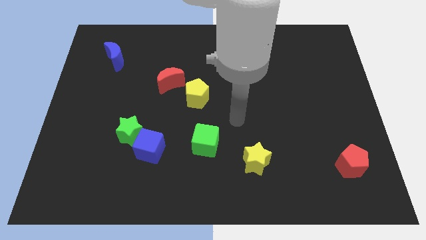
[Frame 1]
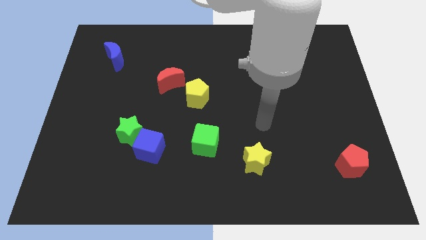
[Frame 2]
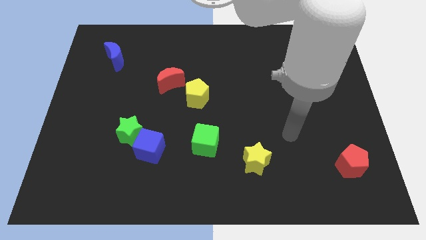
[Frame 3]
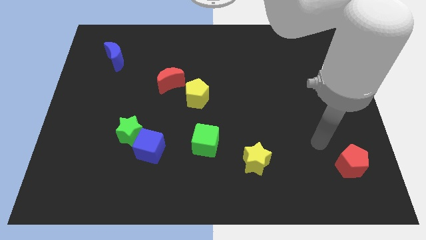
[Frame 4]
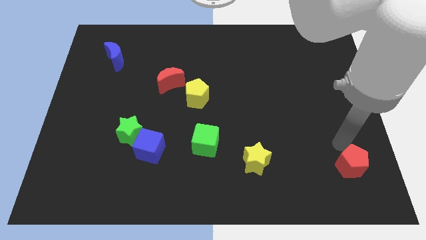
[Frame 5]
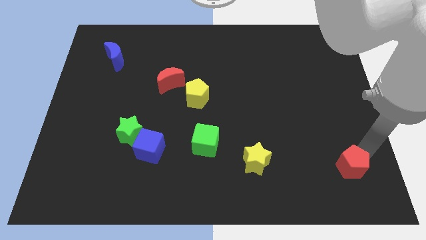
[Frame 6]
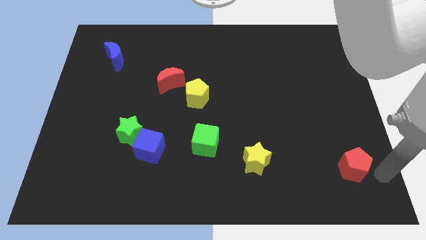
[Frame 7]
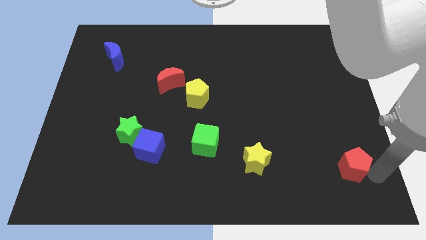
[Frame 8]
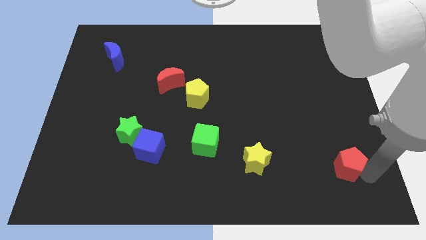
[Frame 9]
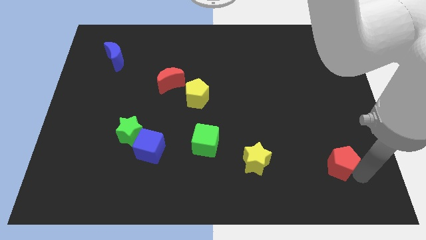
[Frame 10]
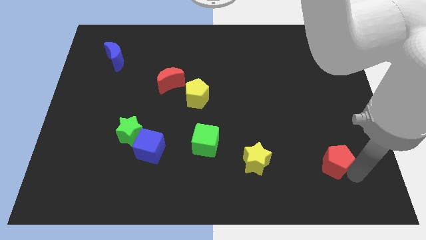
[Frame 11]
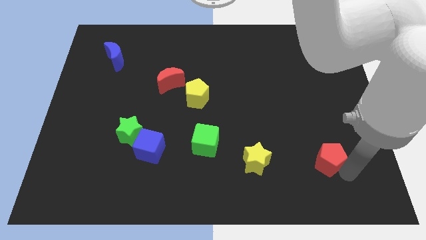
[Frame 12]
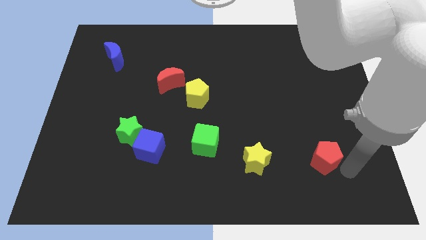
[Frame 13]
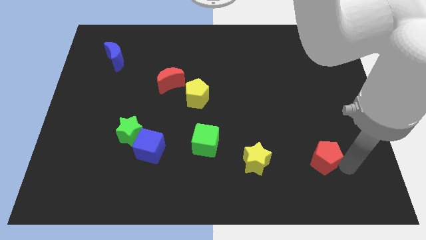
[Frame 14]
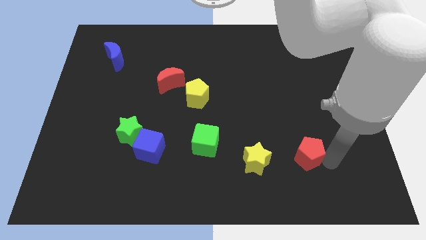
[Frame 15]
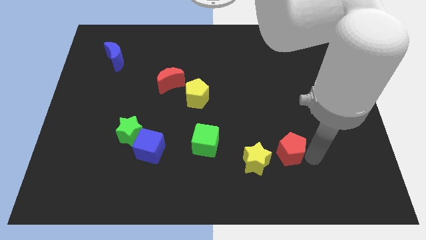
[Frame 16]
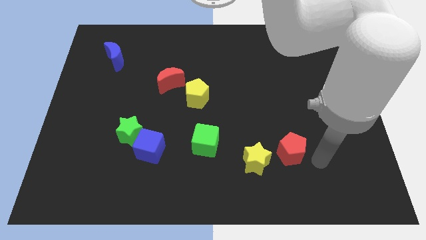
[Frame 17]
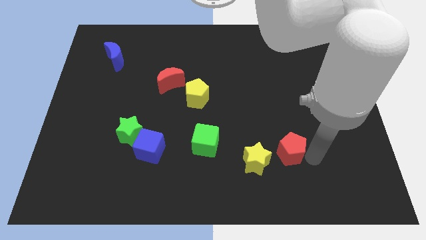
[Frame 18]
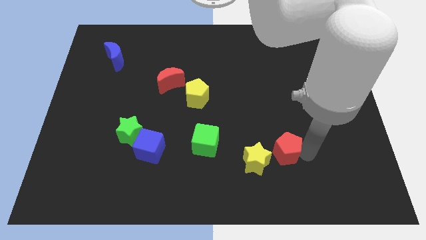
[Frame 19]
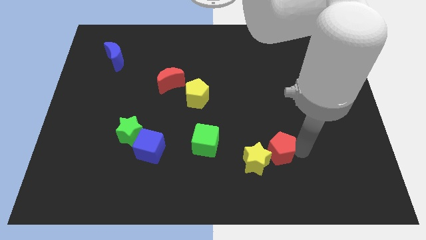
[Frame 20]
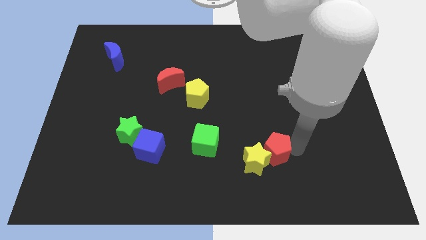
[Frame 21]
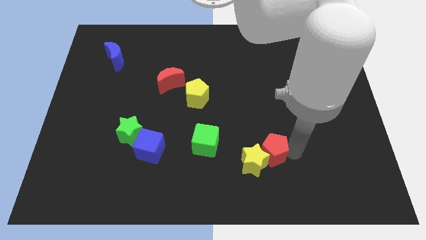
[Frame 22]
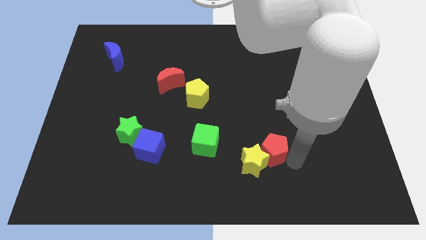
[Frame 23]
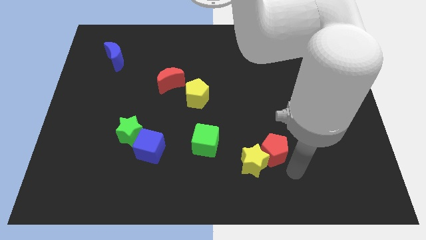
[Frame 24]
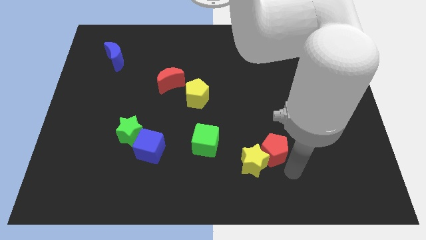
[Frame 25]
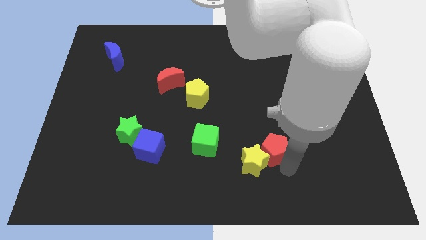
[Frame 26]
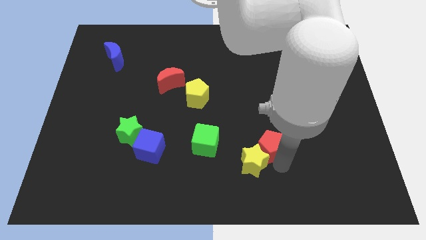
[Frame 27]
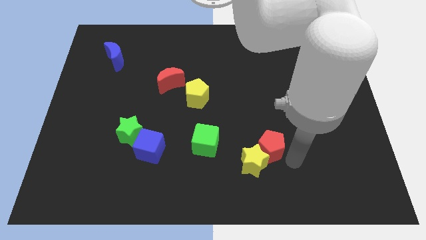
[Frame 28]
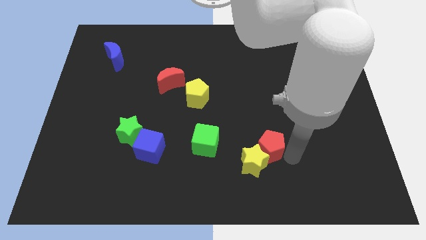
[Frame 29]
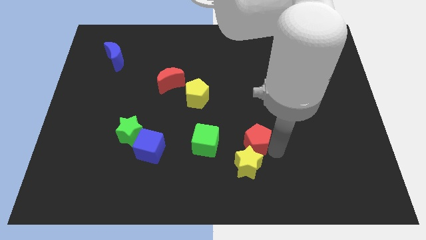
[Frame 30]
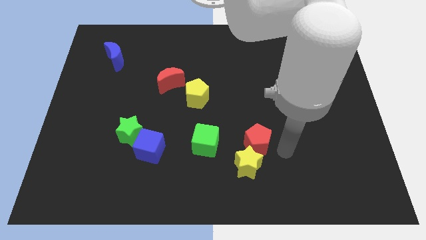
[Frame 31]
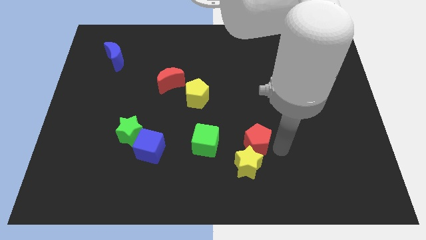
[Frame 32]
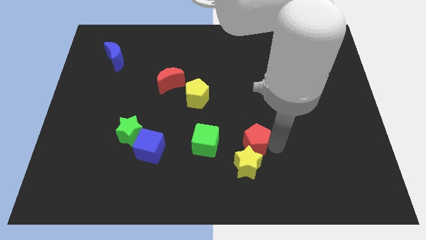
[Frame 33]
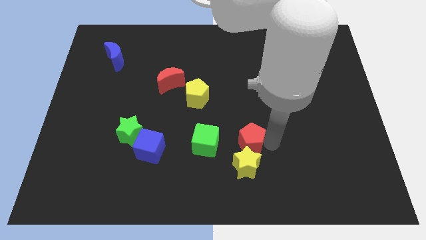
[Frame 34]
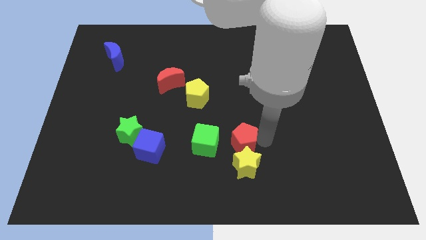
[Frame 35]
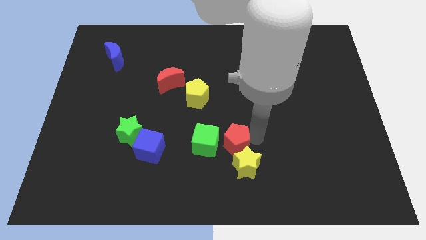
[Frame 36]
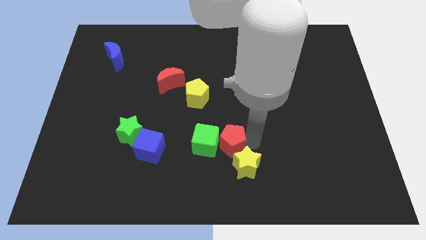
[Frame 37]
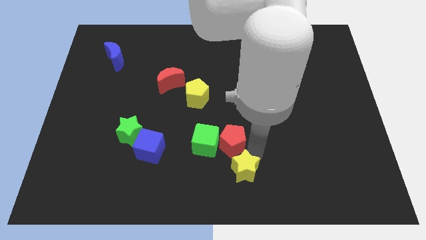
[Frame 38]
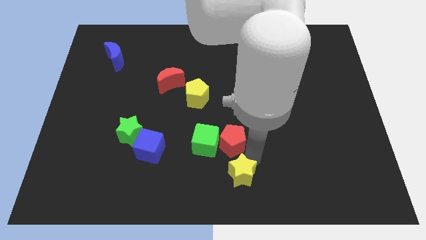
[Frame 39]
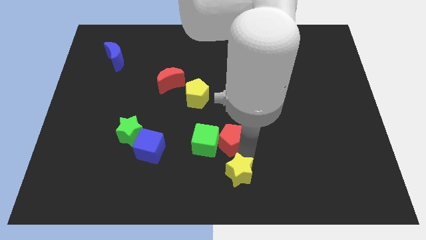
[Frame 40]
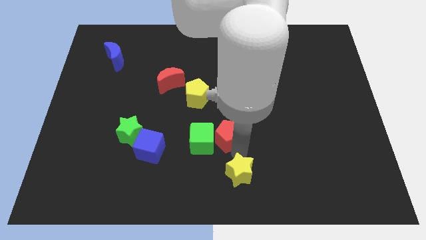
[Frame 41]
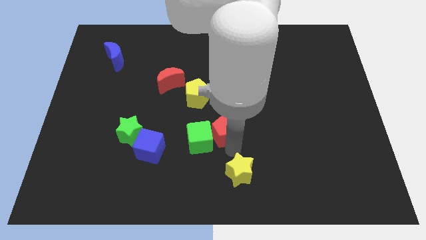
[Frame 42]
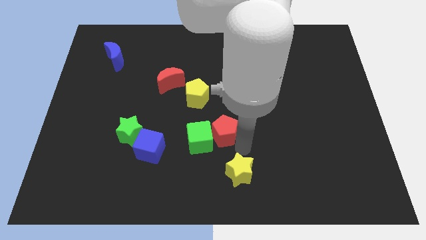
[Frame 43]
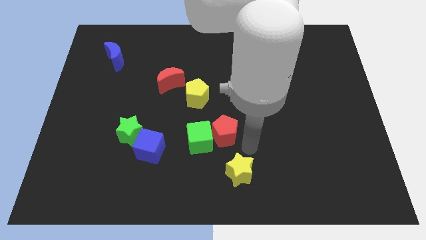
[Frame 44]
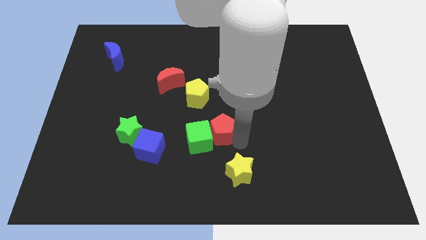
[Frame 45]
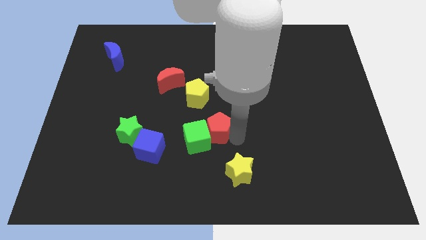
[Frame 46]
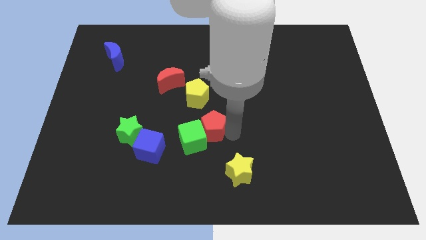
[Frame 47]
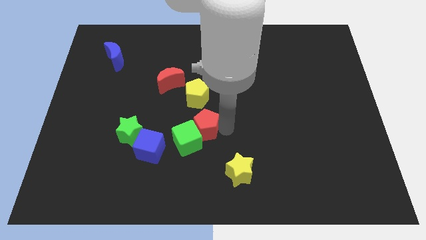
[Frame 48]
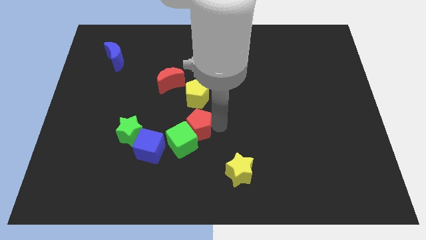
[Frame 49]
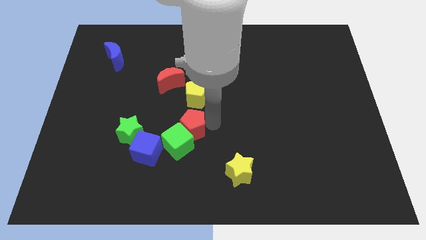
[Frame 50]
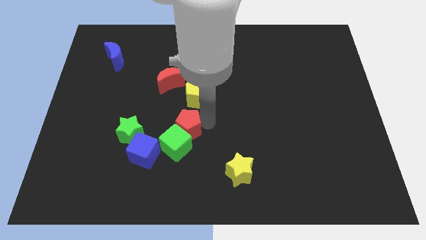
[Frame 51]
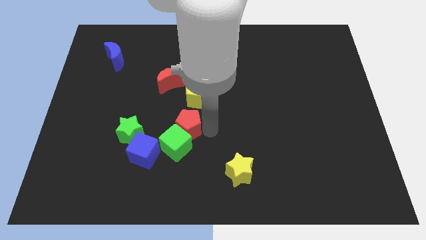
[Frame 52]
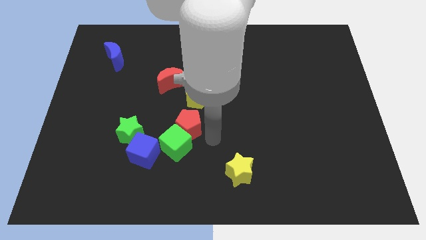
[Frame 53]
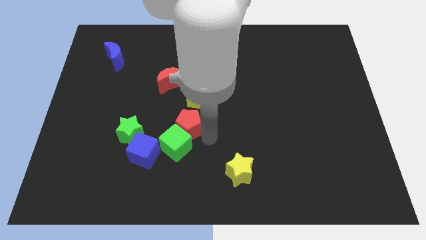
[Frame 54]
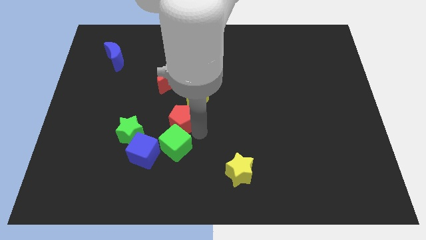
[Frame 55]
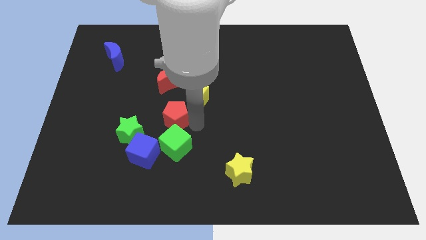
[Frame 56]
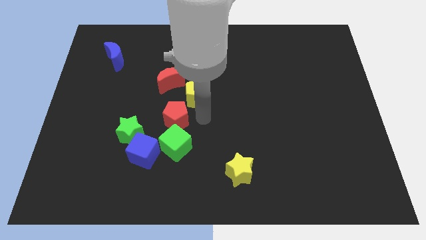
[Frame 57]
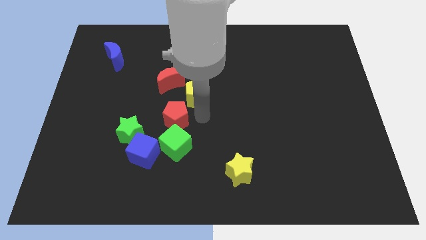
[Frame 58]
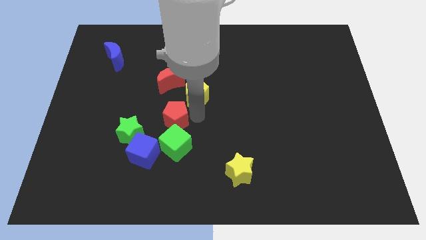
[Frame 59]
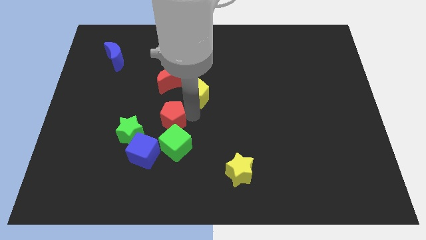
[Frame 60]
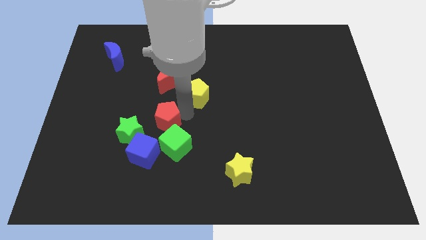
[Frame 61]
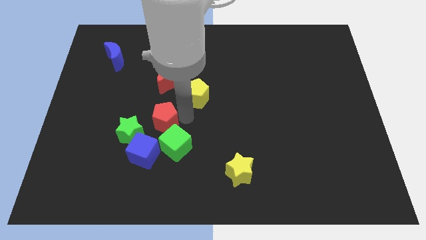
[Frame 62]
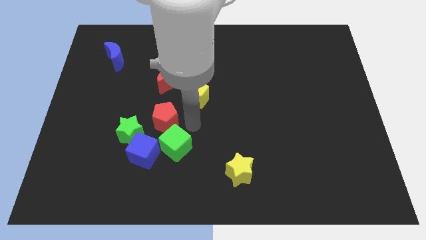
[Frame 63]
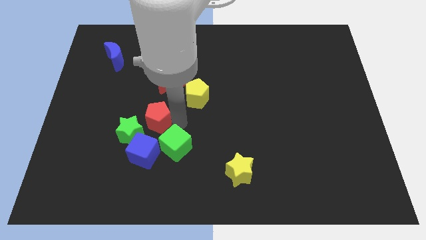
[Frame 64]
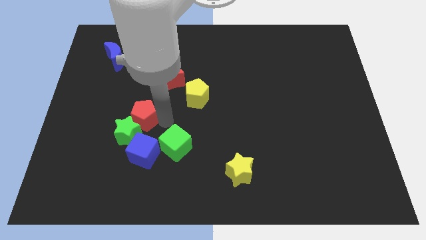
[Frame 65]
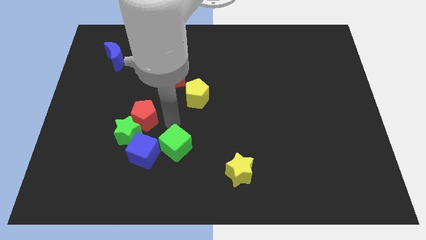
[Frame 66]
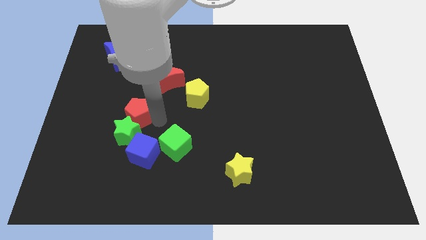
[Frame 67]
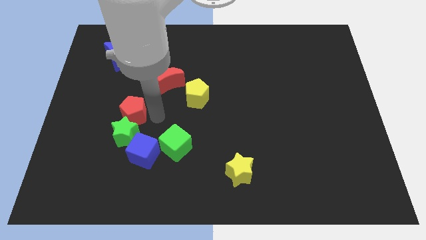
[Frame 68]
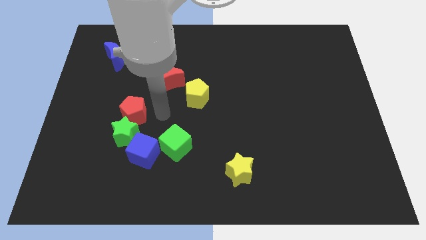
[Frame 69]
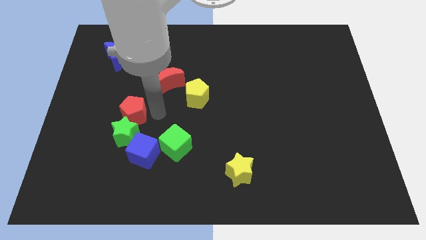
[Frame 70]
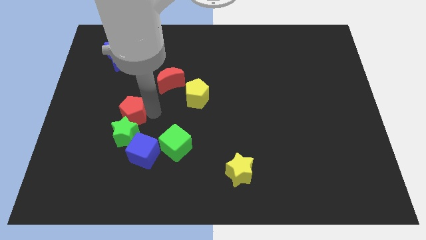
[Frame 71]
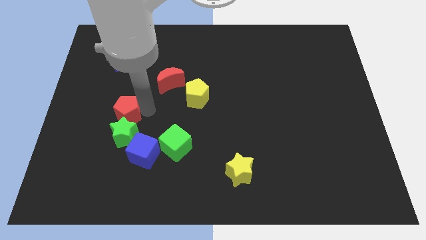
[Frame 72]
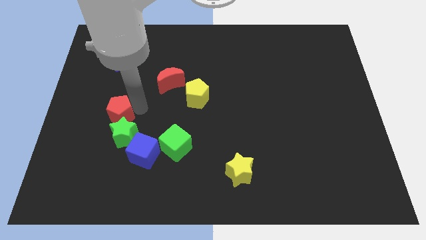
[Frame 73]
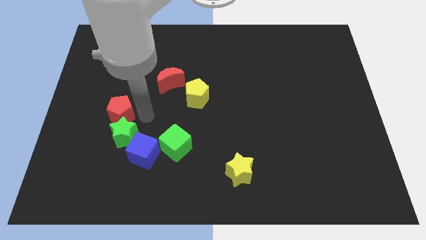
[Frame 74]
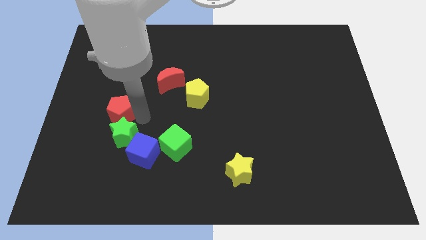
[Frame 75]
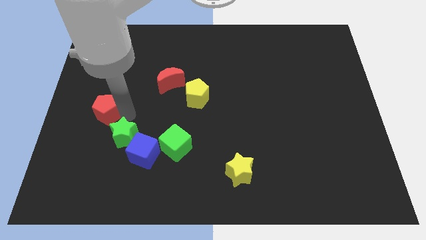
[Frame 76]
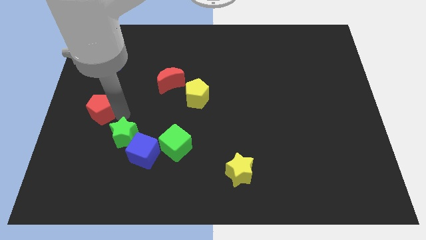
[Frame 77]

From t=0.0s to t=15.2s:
move the red pentagon to the center left
